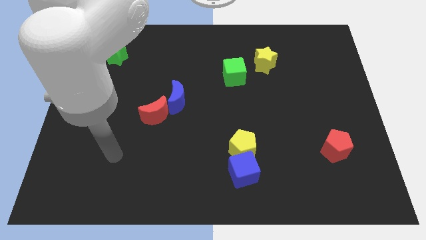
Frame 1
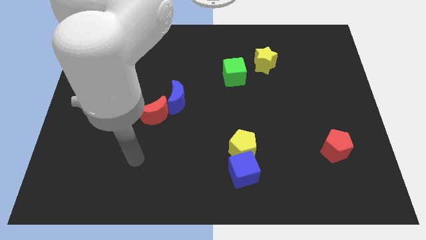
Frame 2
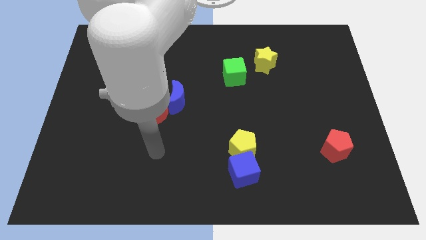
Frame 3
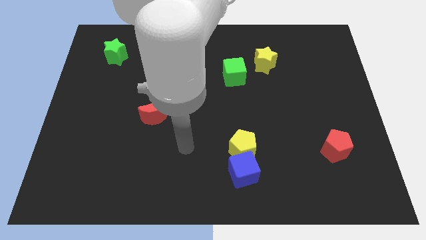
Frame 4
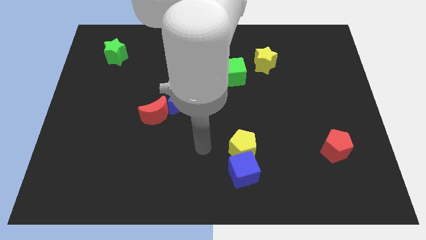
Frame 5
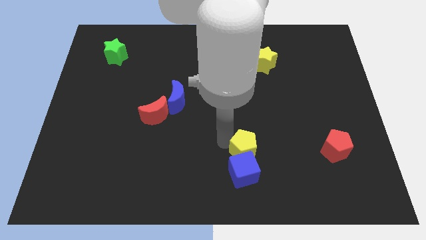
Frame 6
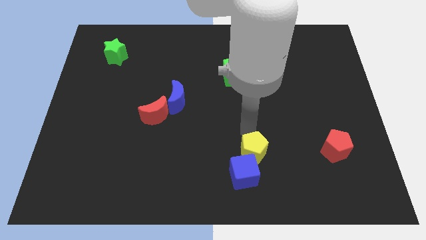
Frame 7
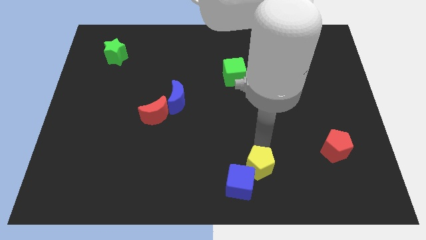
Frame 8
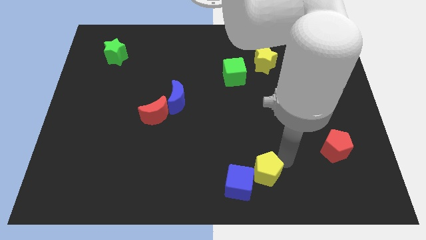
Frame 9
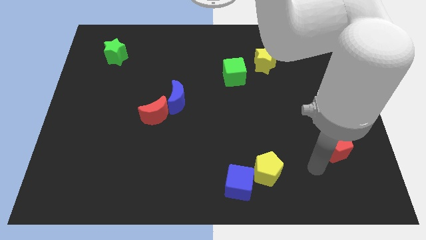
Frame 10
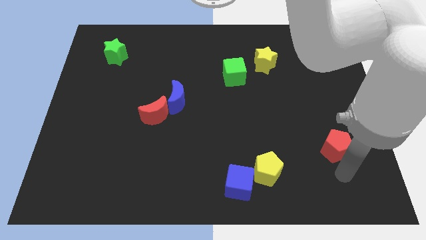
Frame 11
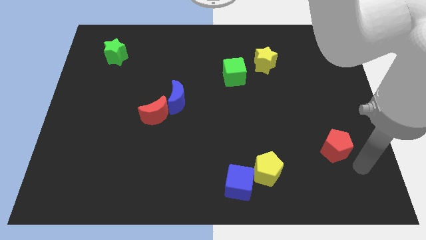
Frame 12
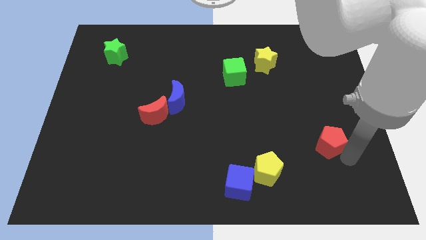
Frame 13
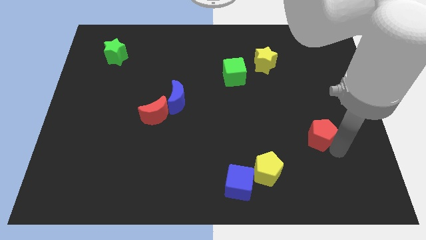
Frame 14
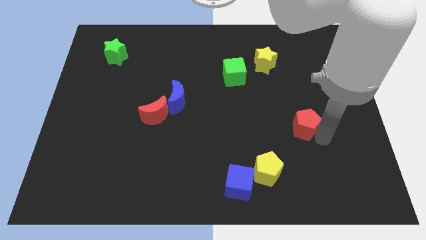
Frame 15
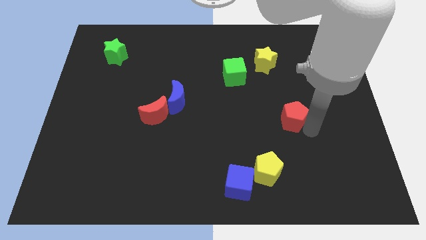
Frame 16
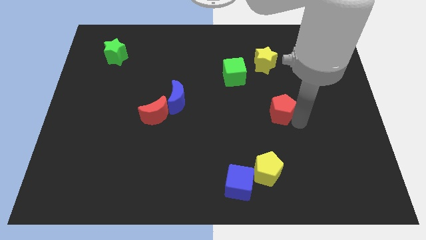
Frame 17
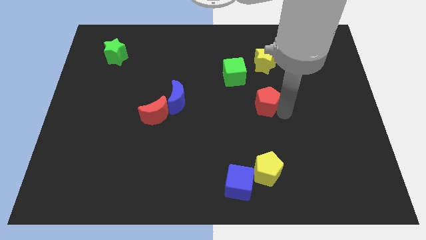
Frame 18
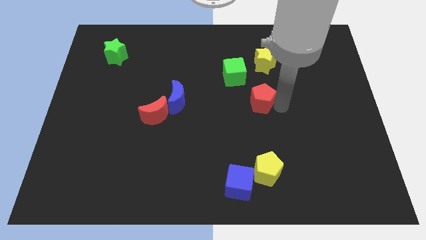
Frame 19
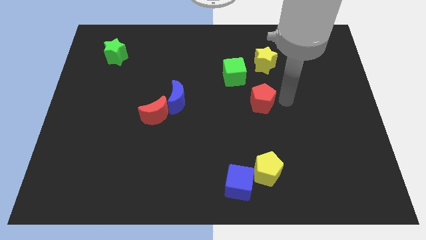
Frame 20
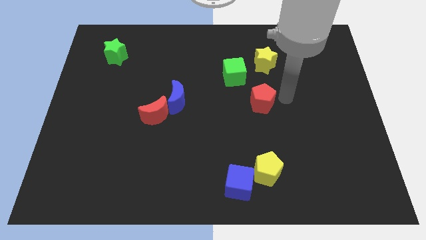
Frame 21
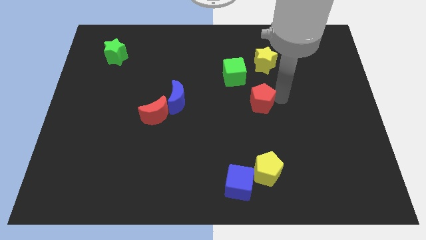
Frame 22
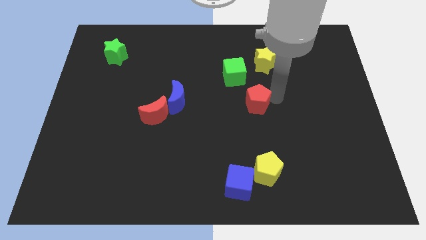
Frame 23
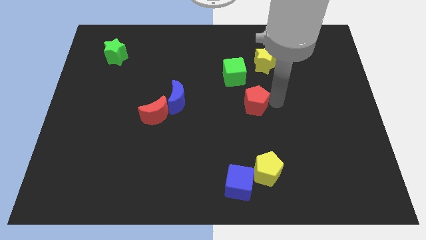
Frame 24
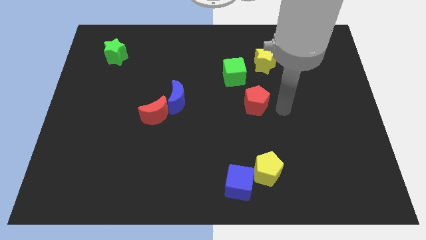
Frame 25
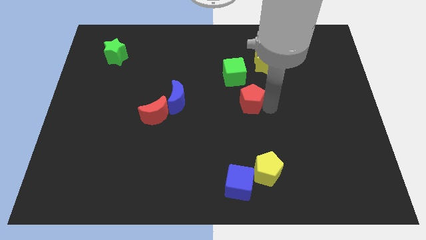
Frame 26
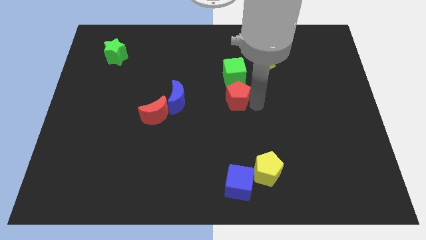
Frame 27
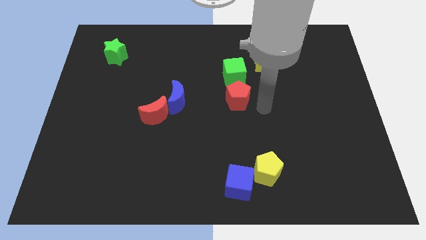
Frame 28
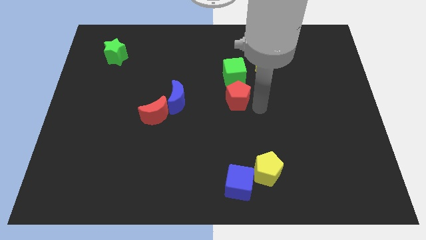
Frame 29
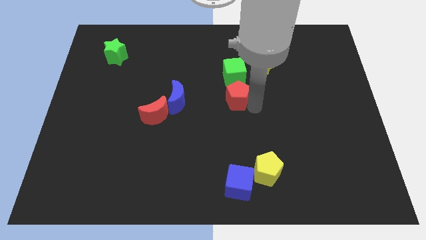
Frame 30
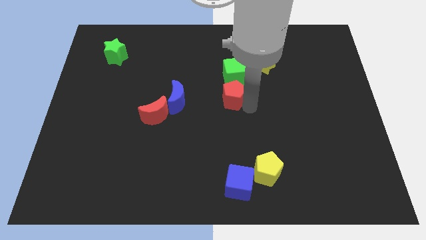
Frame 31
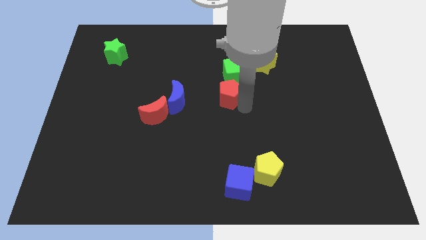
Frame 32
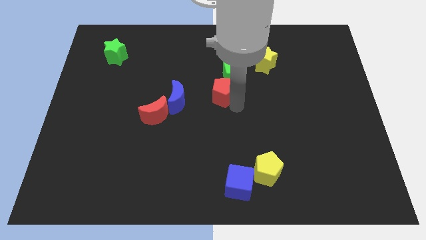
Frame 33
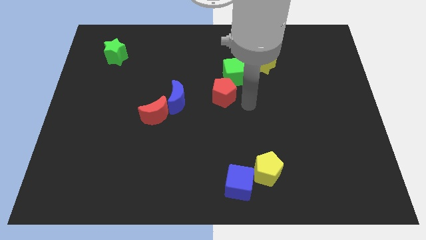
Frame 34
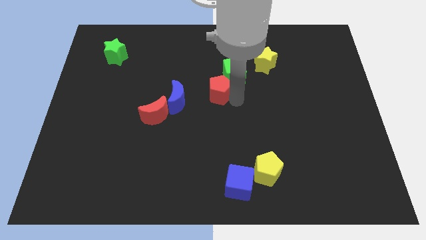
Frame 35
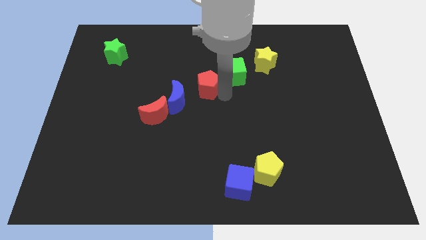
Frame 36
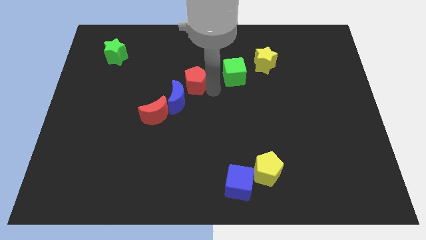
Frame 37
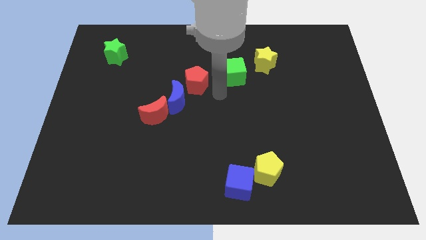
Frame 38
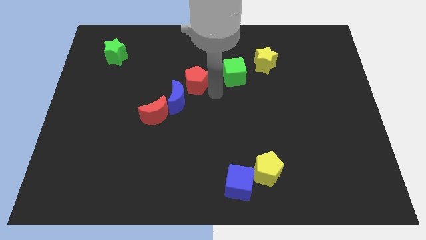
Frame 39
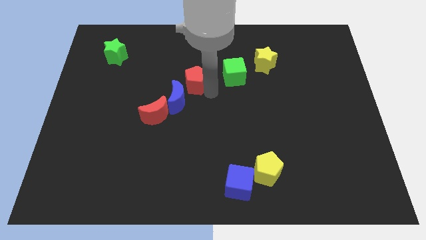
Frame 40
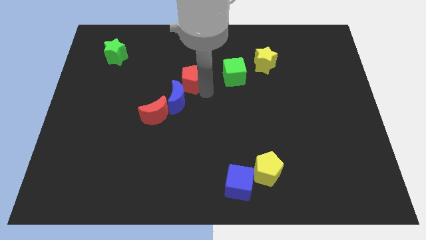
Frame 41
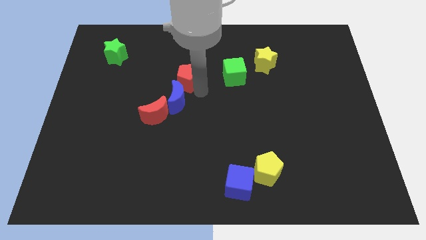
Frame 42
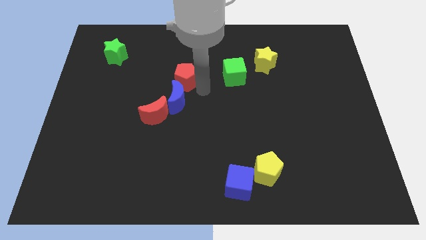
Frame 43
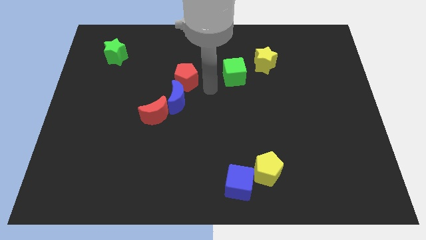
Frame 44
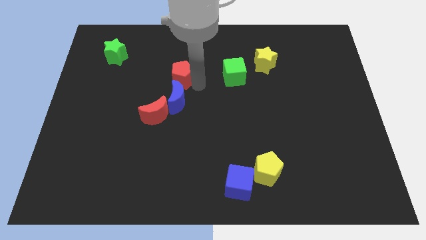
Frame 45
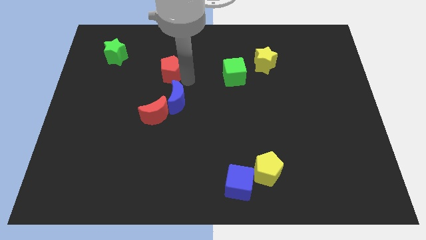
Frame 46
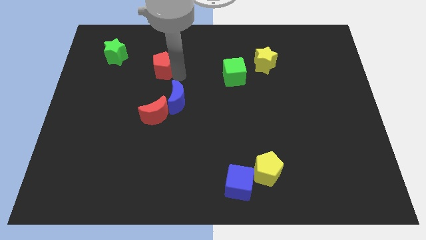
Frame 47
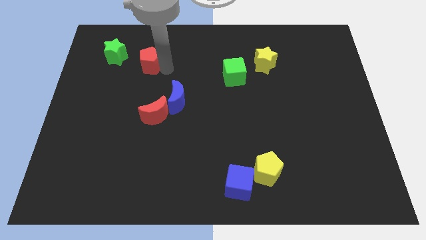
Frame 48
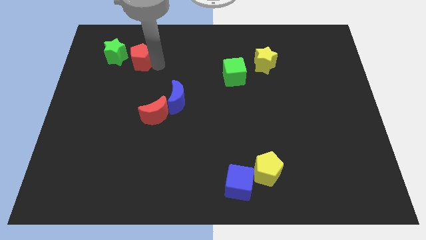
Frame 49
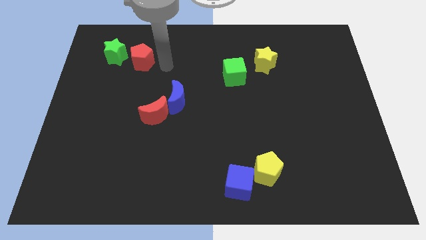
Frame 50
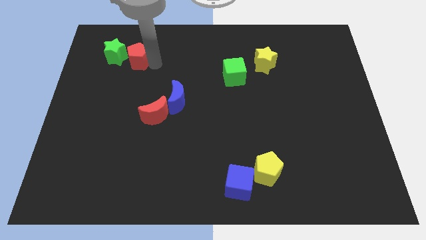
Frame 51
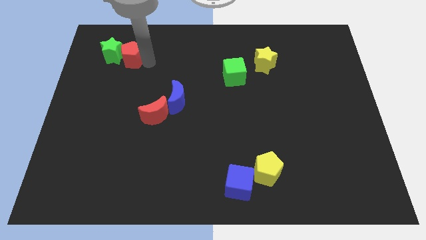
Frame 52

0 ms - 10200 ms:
push the red pentagon towards the green star

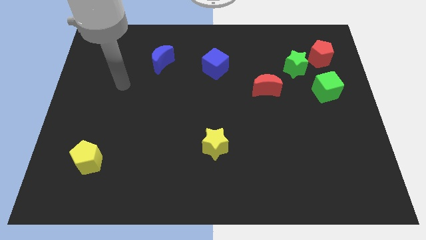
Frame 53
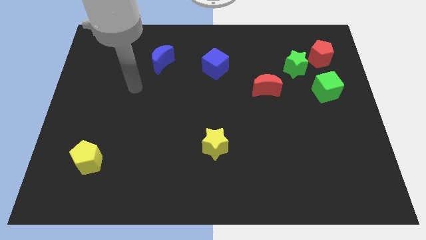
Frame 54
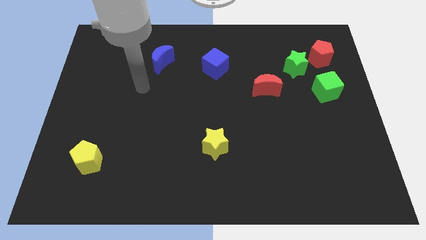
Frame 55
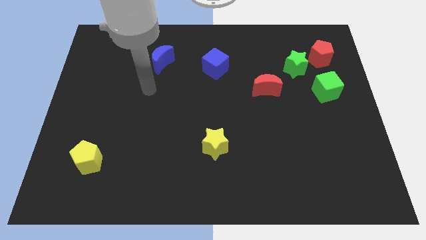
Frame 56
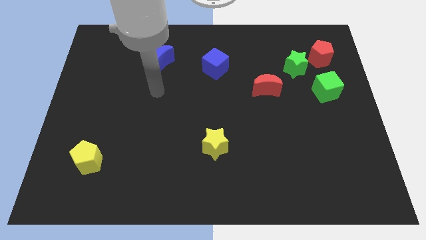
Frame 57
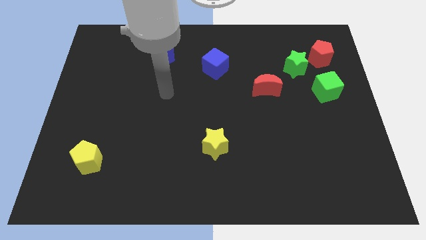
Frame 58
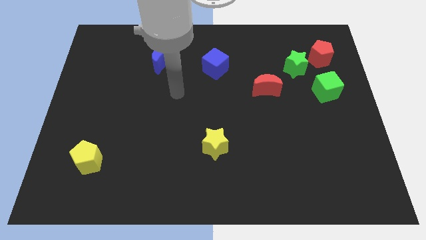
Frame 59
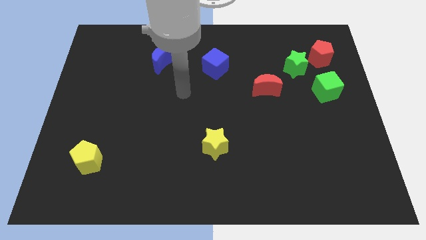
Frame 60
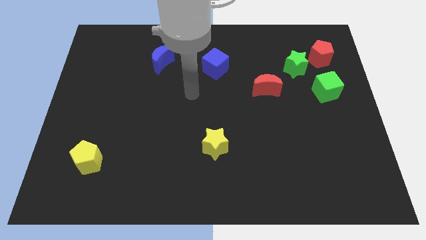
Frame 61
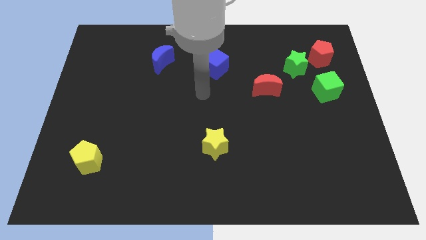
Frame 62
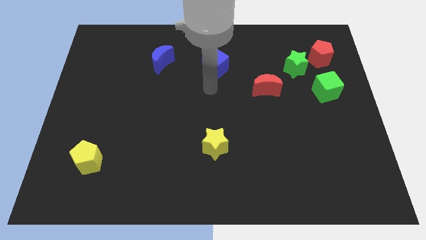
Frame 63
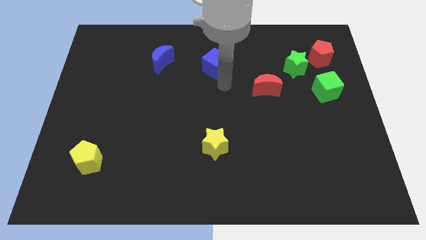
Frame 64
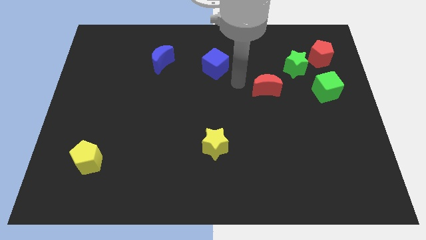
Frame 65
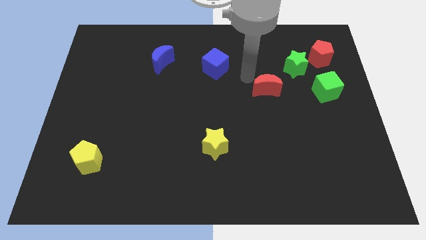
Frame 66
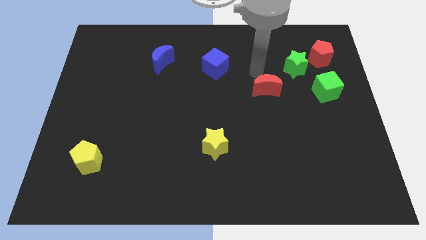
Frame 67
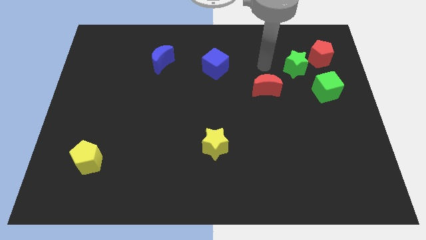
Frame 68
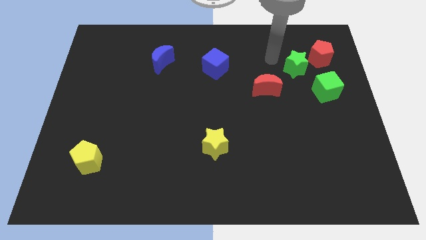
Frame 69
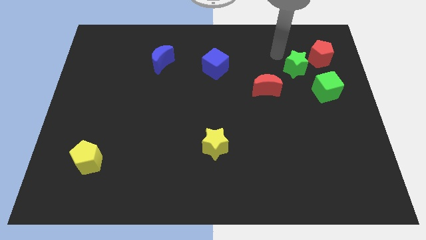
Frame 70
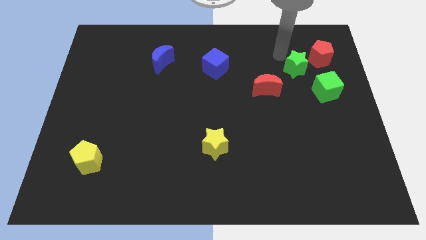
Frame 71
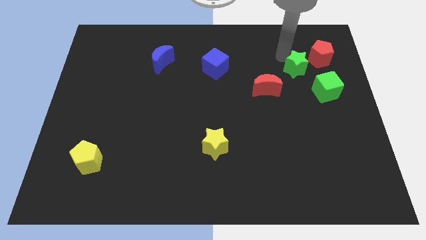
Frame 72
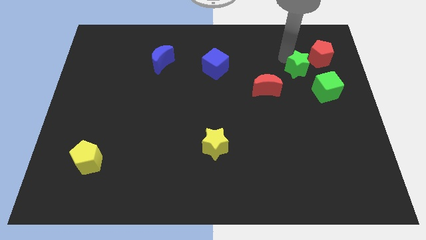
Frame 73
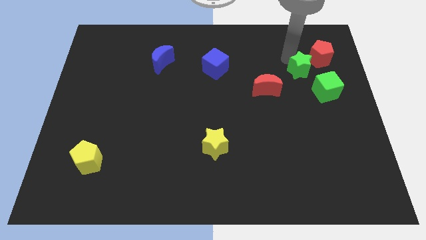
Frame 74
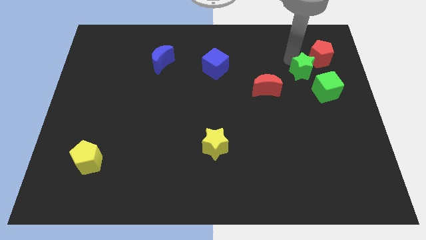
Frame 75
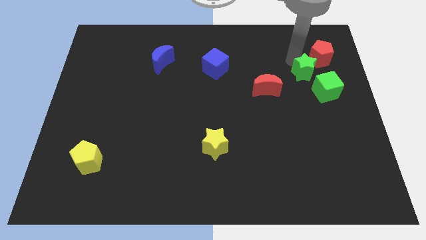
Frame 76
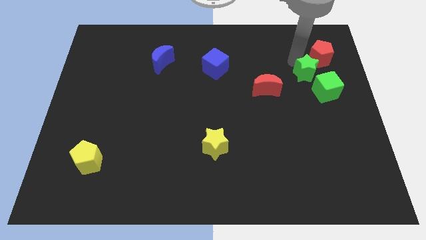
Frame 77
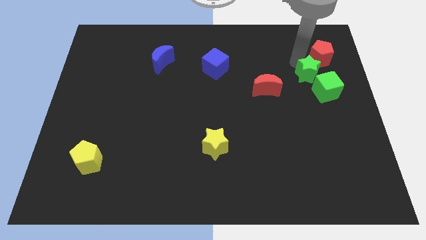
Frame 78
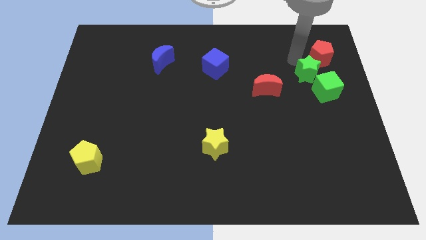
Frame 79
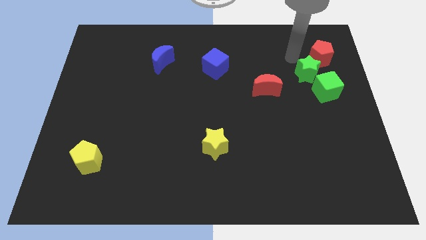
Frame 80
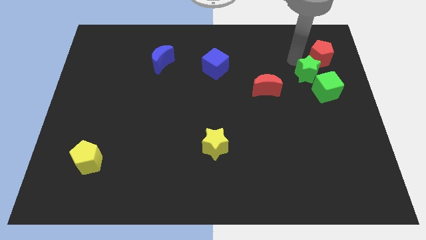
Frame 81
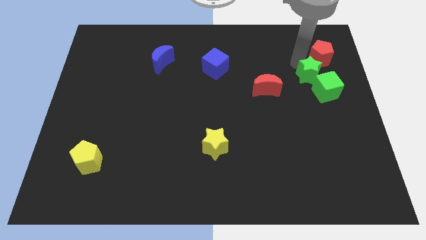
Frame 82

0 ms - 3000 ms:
push the green star next to the green cube
